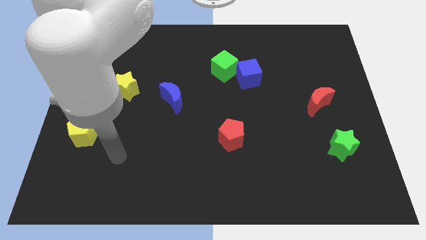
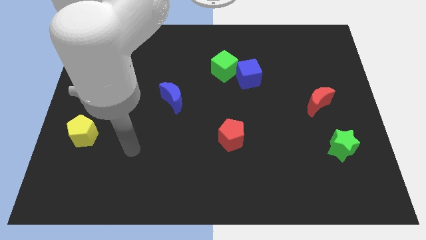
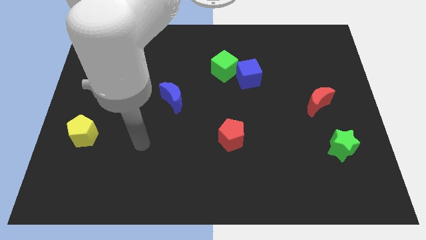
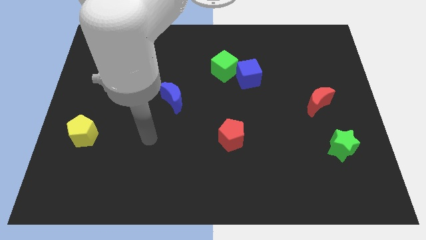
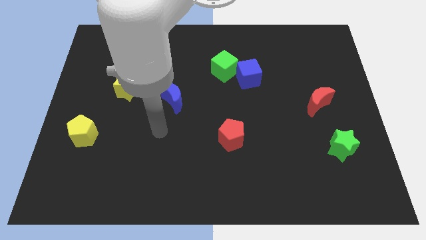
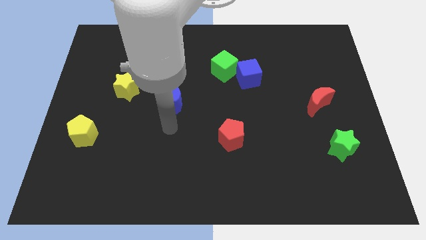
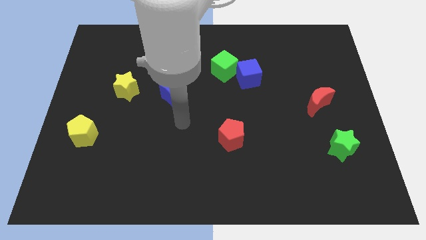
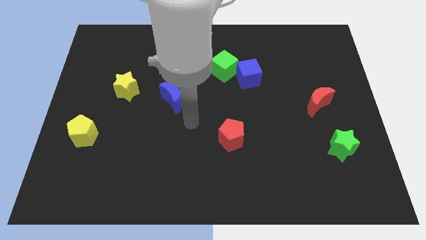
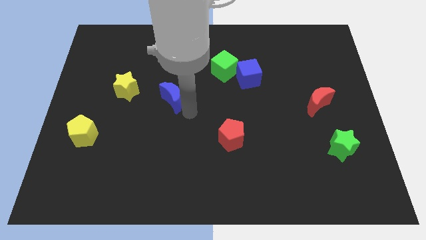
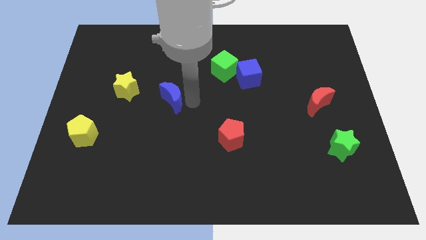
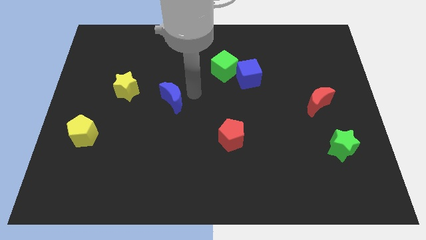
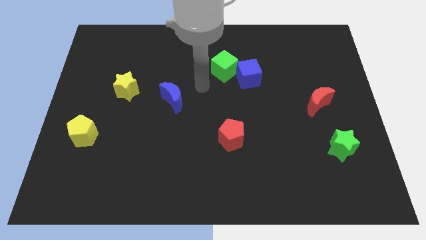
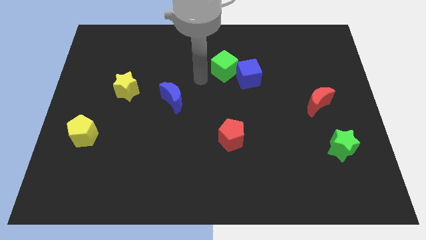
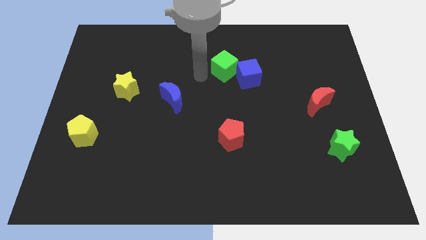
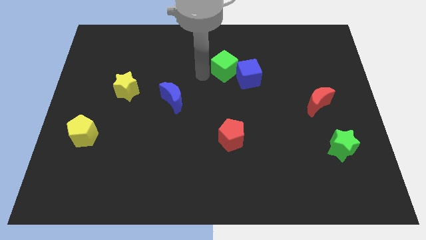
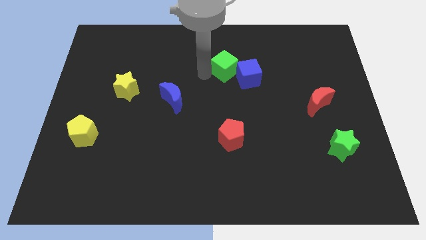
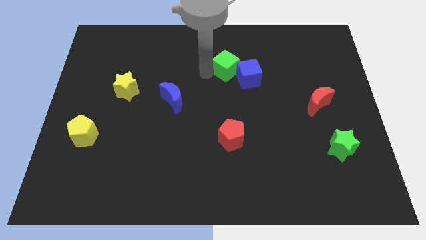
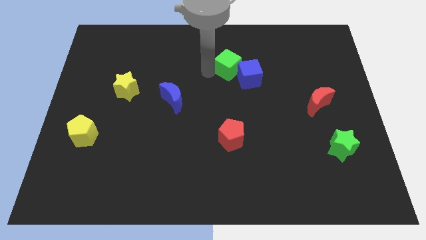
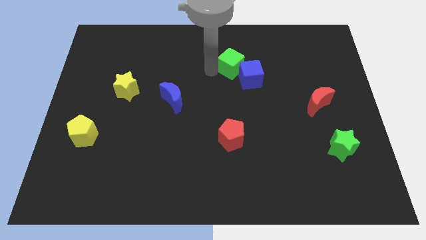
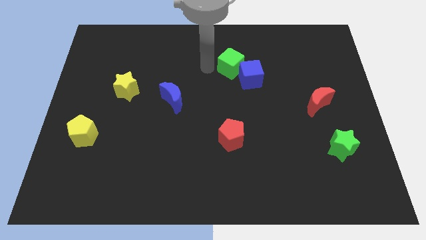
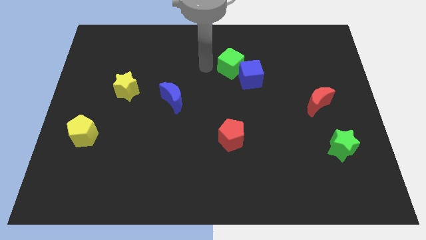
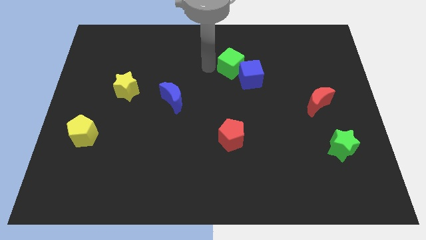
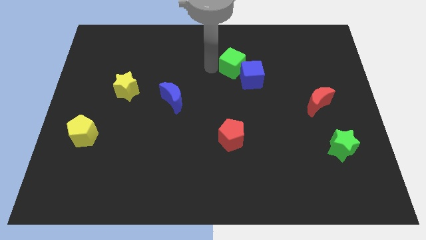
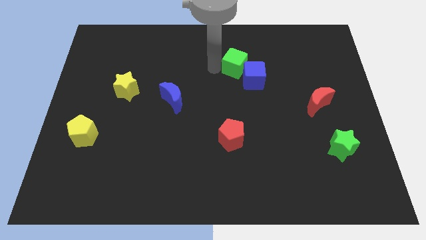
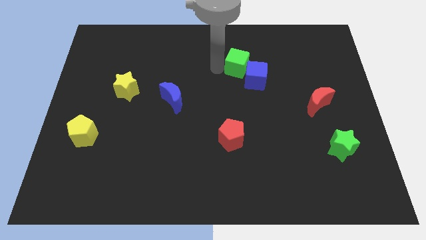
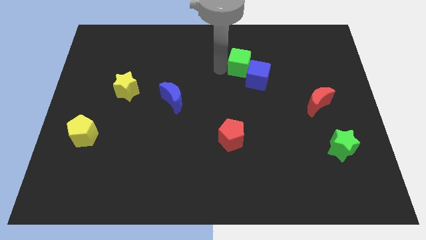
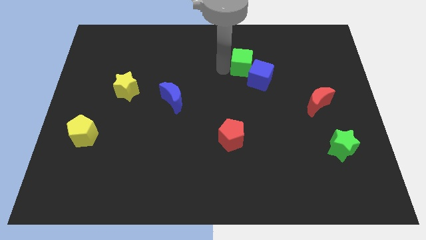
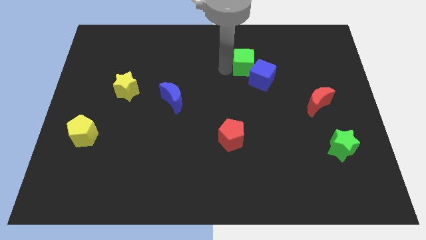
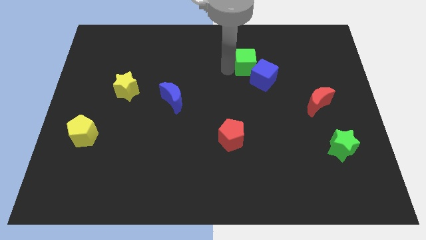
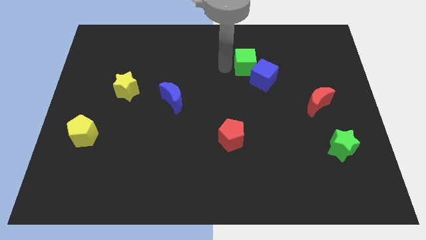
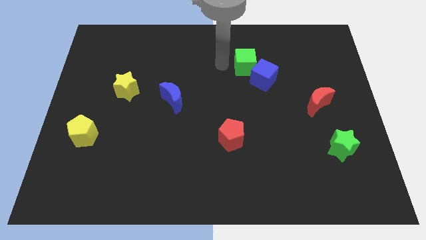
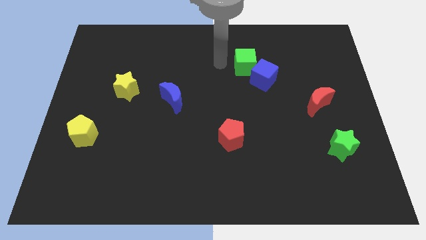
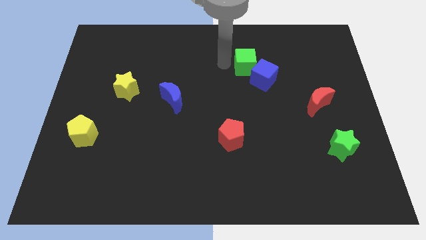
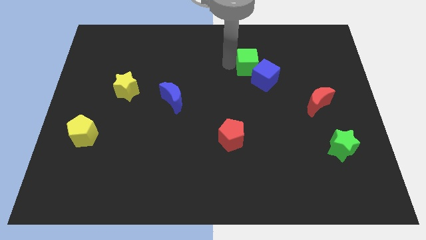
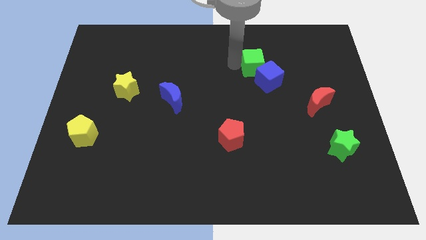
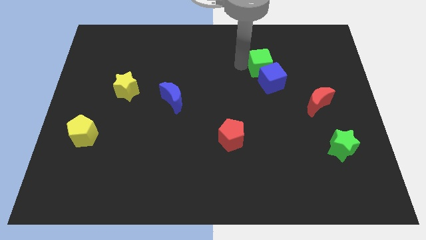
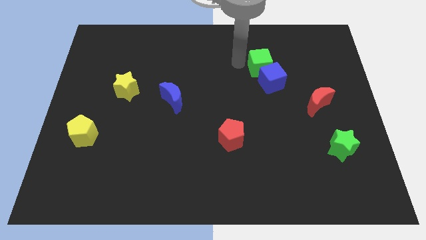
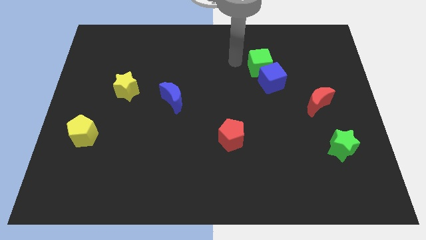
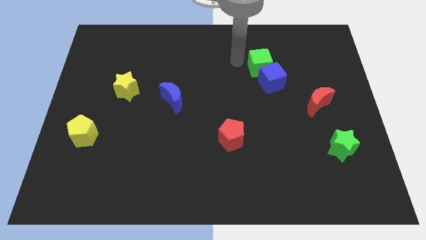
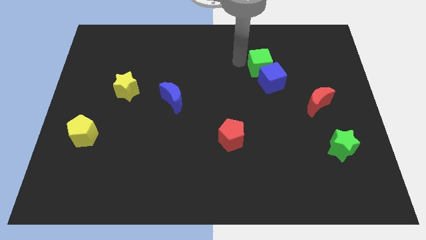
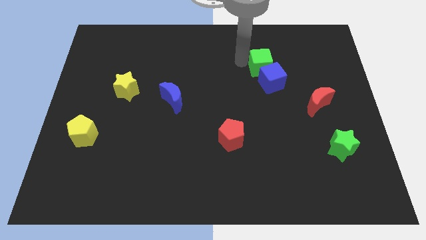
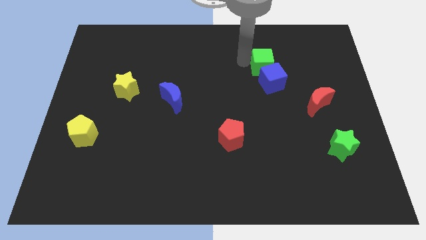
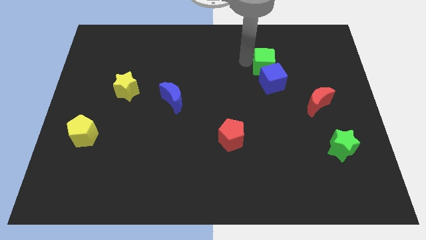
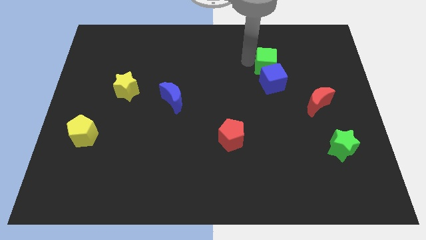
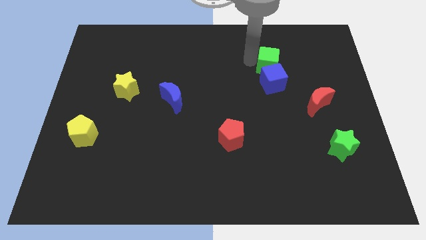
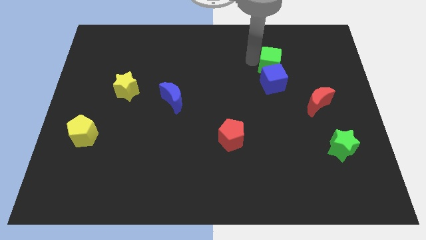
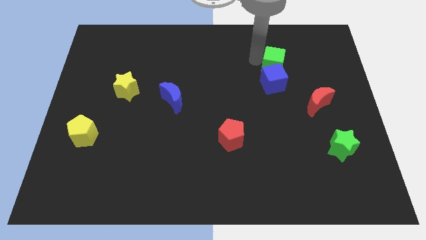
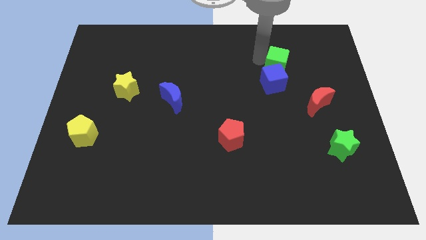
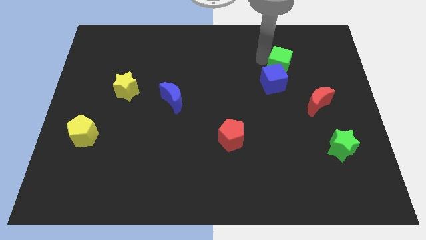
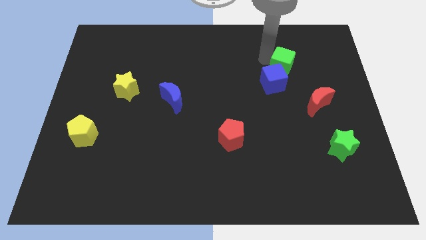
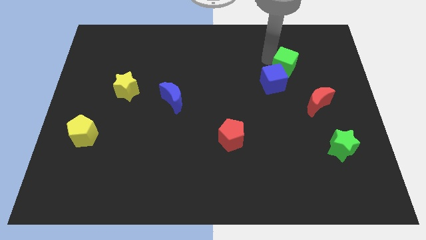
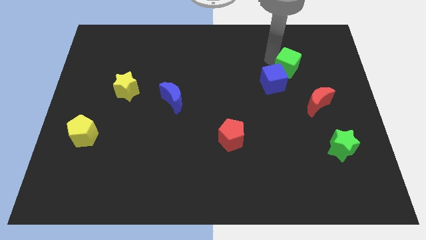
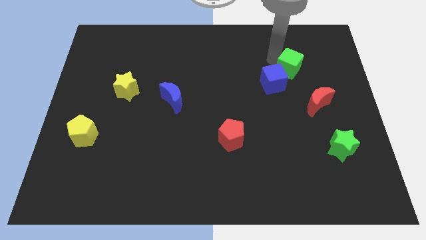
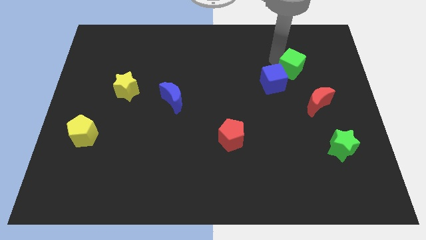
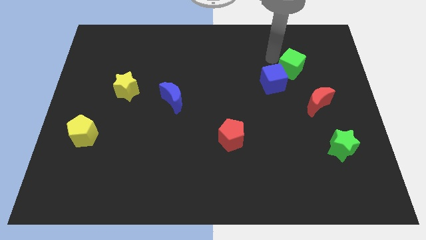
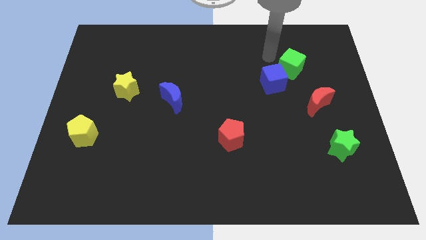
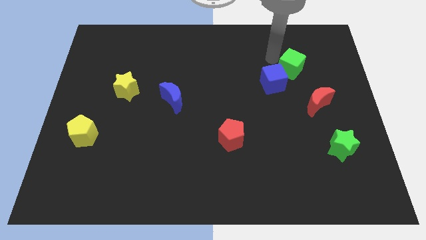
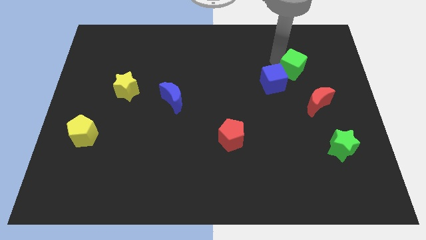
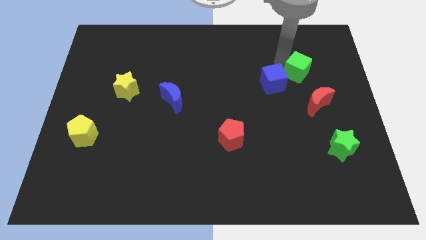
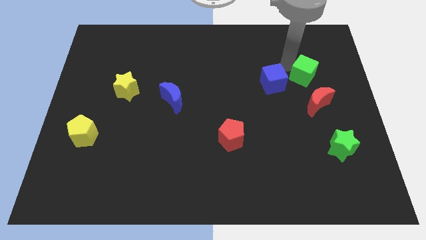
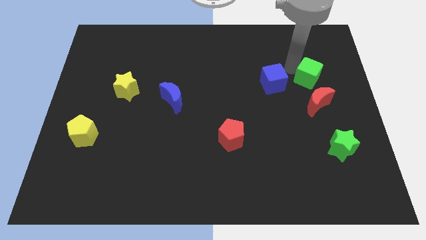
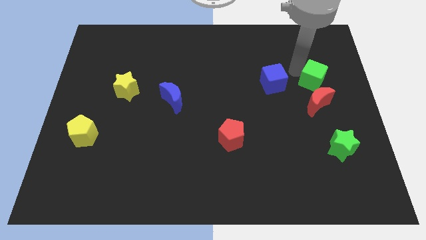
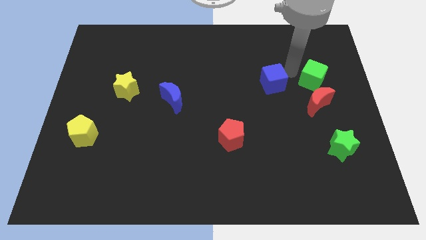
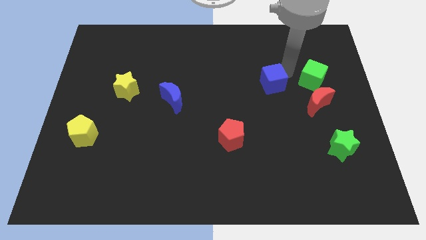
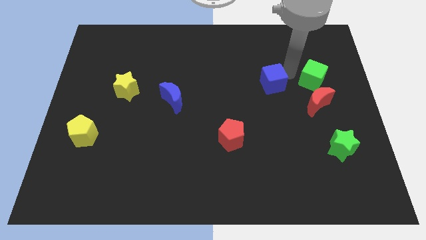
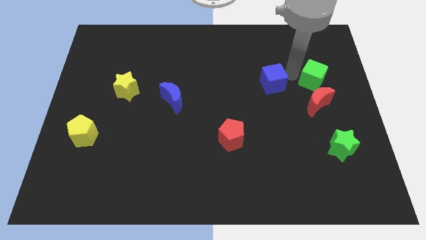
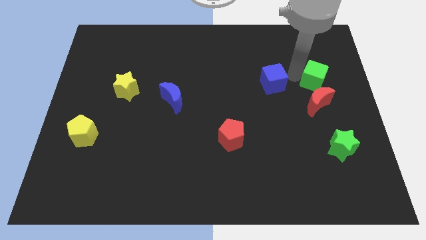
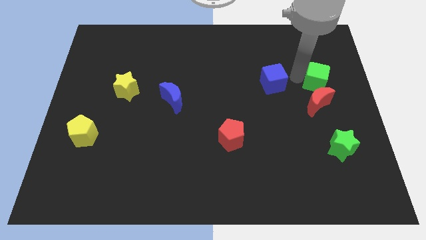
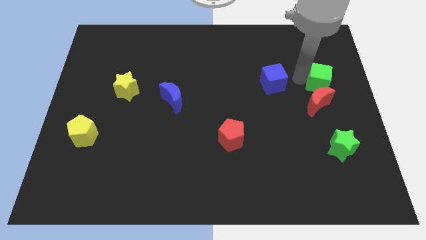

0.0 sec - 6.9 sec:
move the green cube to the right side

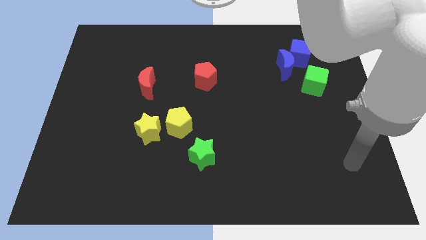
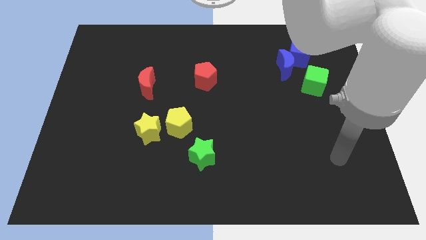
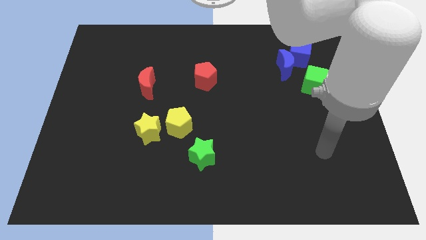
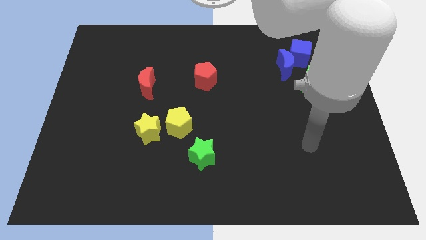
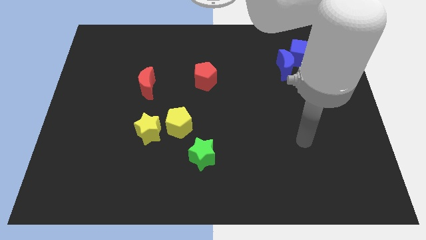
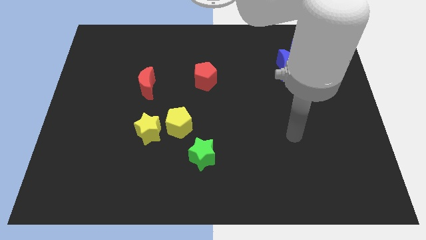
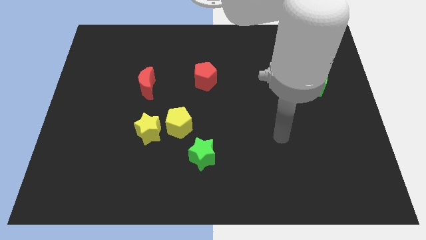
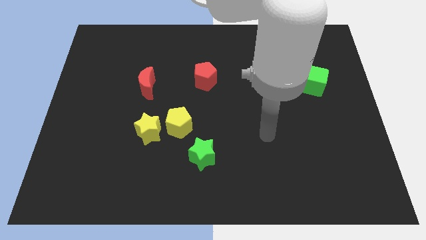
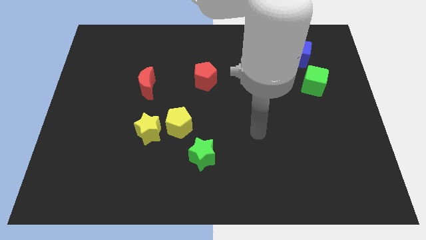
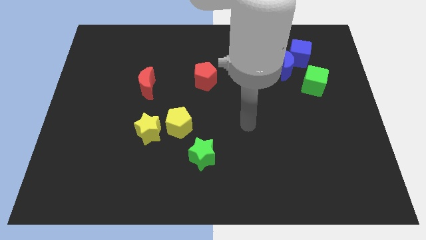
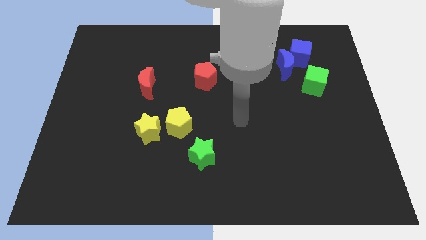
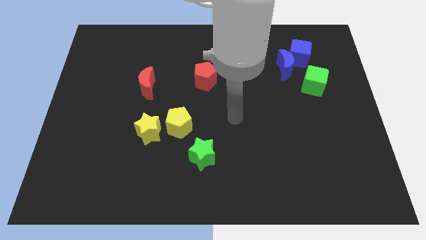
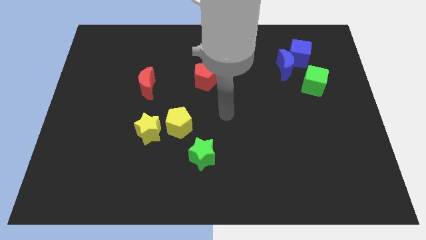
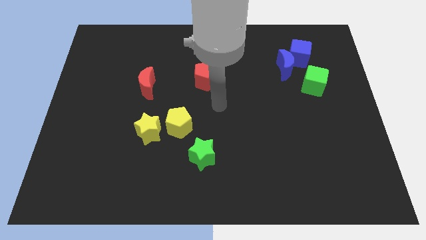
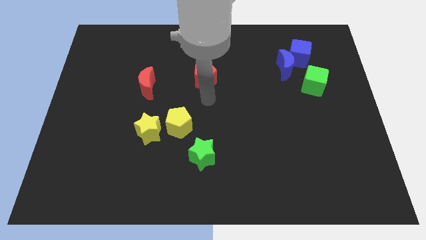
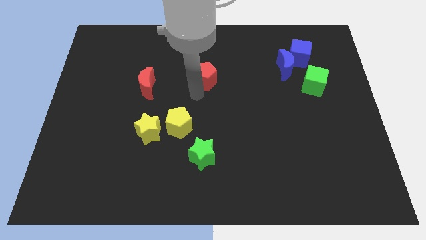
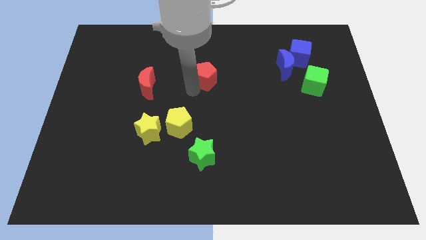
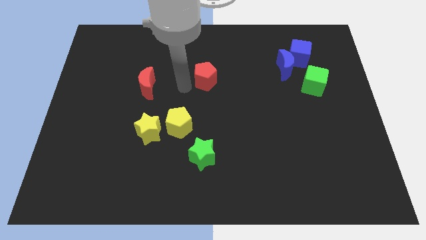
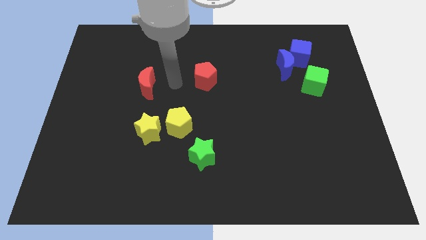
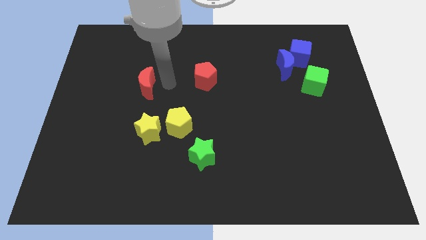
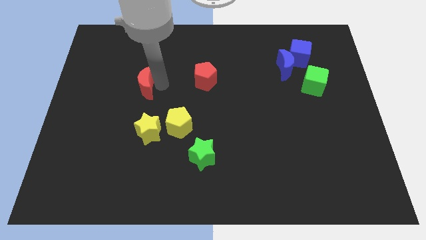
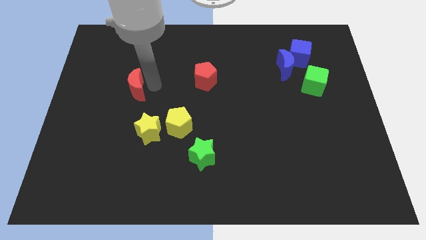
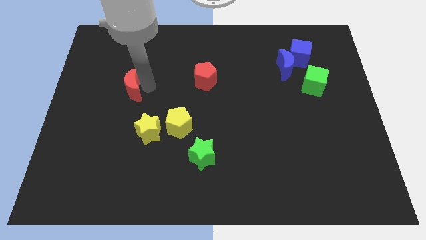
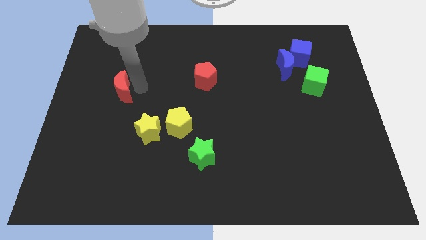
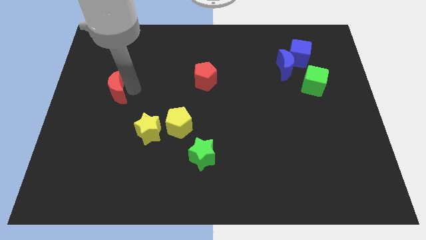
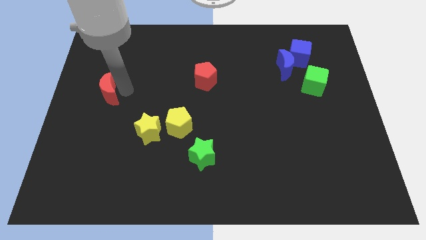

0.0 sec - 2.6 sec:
slide the red moon to the center left
